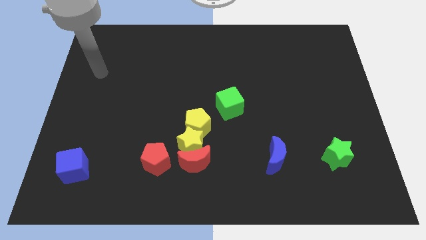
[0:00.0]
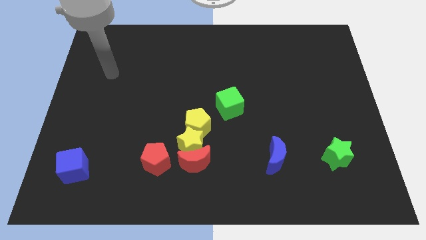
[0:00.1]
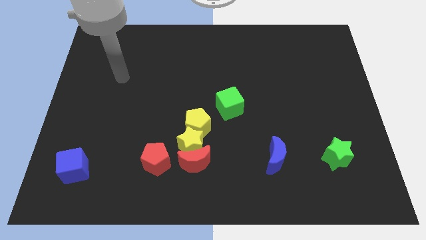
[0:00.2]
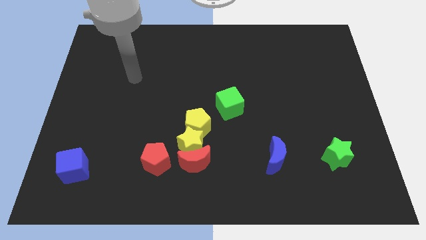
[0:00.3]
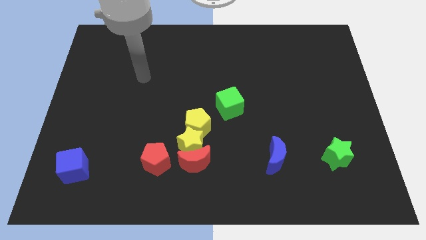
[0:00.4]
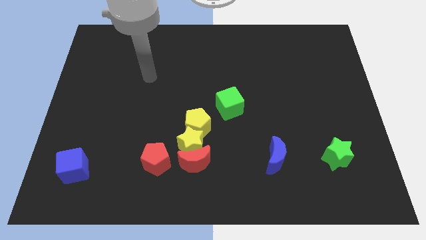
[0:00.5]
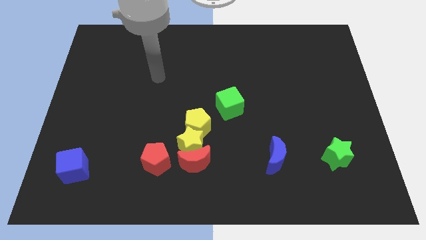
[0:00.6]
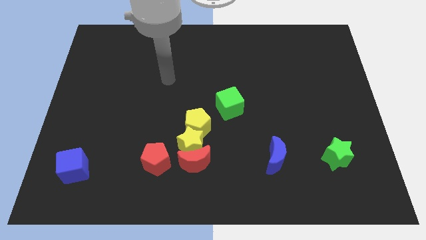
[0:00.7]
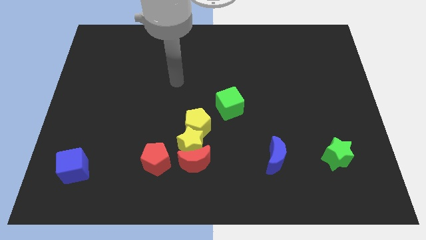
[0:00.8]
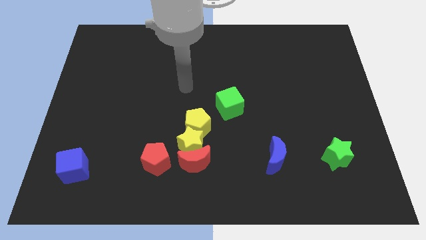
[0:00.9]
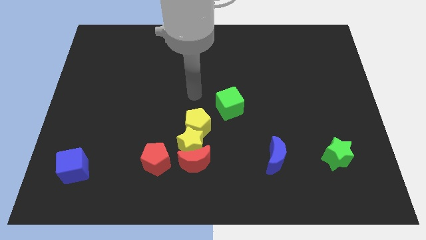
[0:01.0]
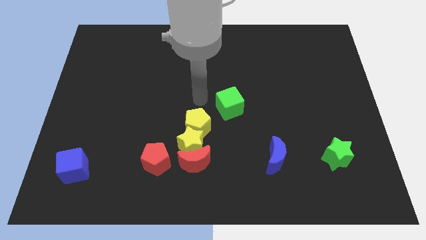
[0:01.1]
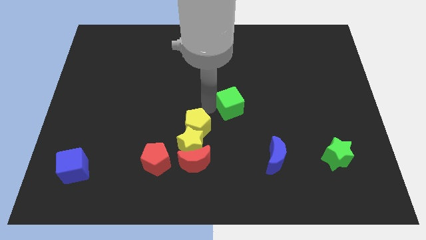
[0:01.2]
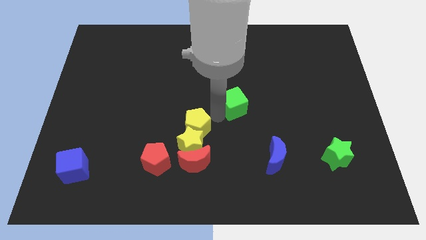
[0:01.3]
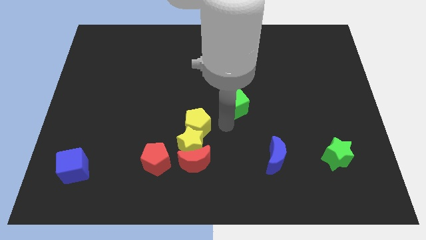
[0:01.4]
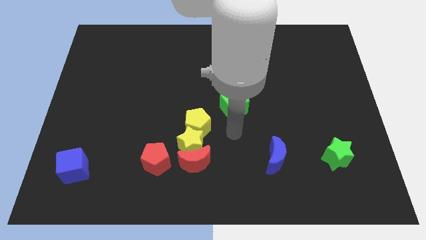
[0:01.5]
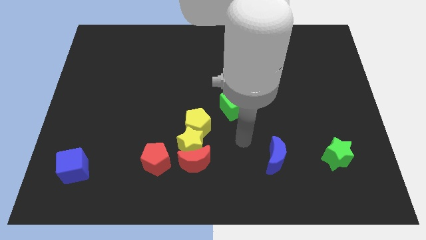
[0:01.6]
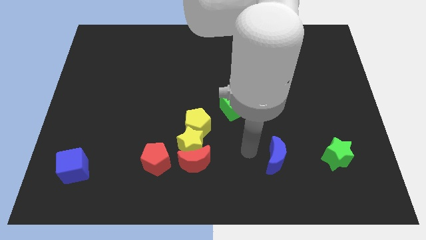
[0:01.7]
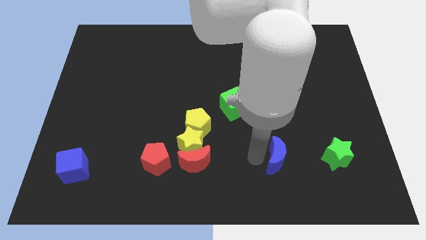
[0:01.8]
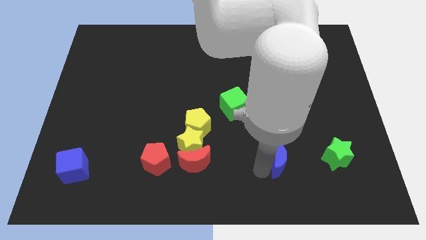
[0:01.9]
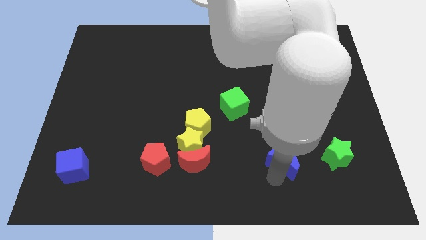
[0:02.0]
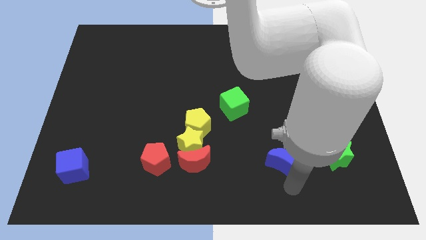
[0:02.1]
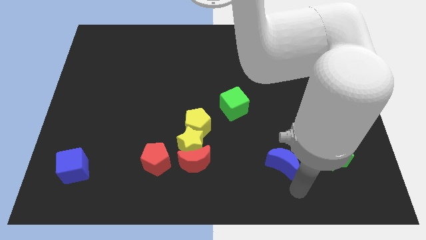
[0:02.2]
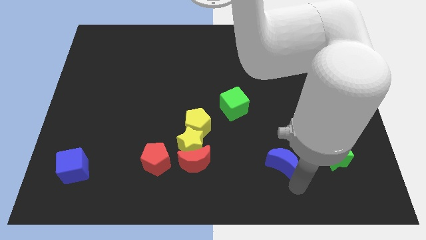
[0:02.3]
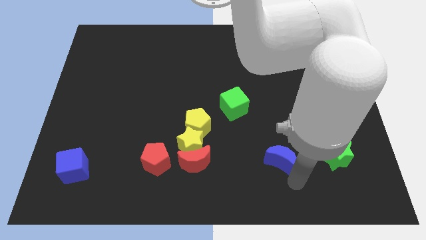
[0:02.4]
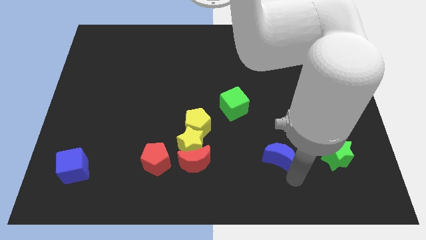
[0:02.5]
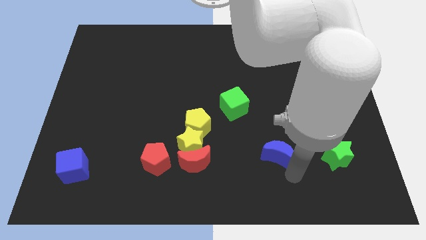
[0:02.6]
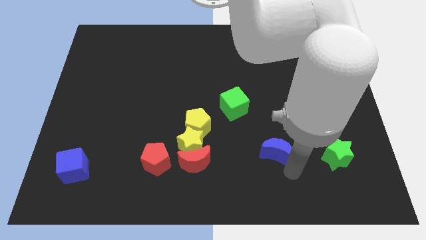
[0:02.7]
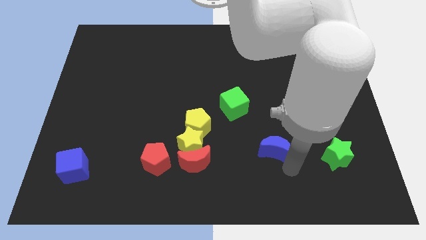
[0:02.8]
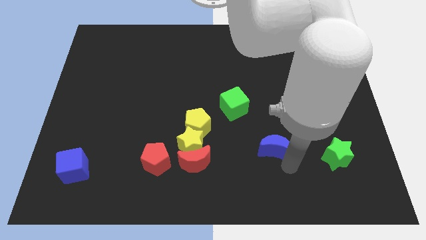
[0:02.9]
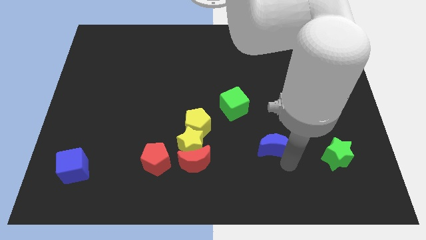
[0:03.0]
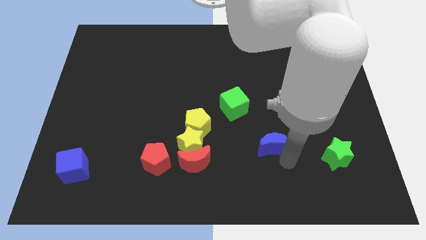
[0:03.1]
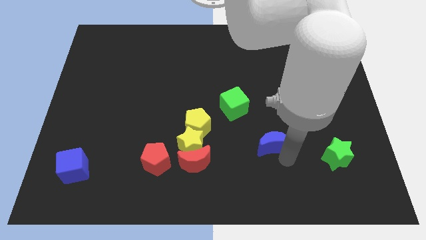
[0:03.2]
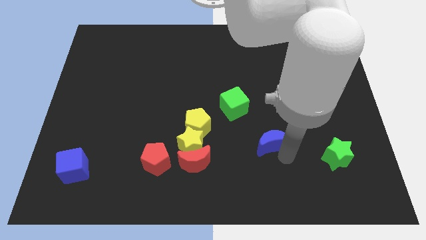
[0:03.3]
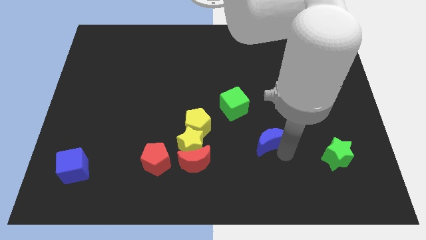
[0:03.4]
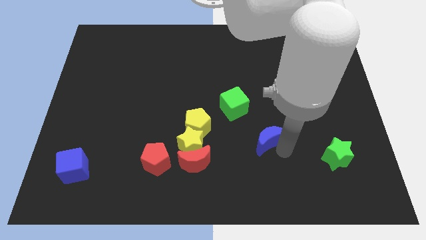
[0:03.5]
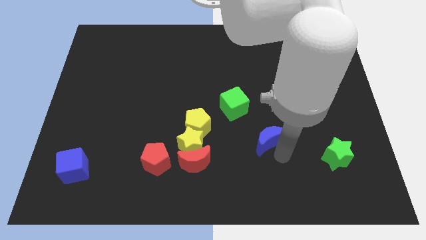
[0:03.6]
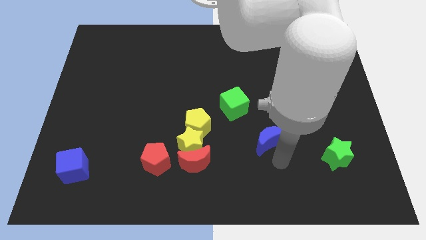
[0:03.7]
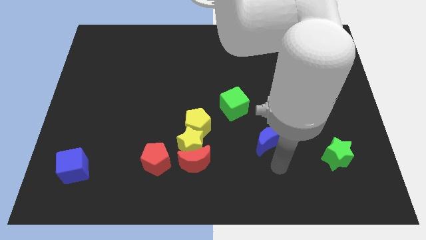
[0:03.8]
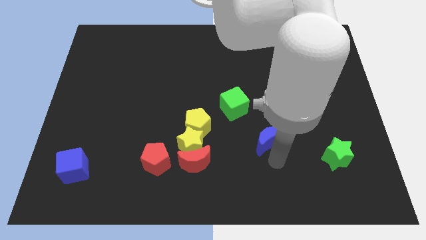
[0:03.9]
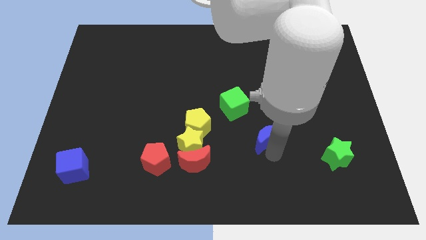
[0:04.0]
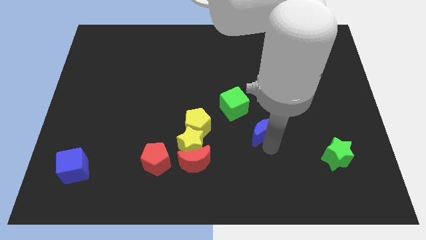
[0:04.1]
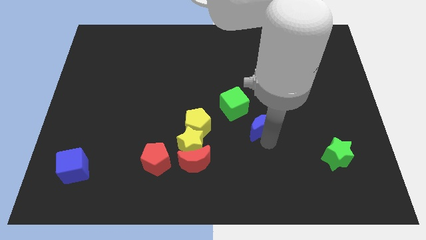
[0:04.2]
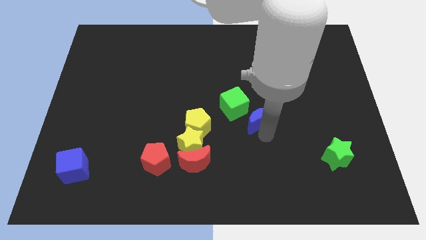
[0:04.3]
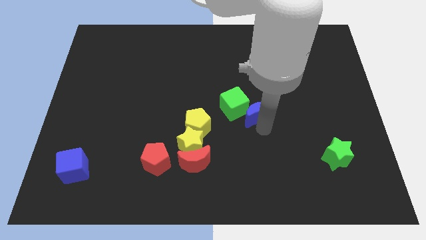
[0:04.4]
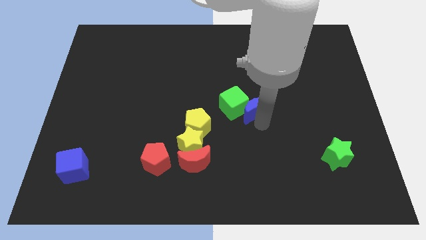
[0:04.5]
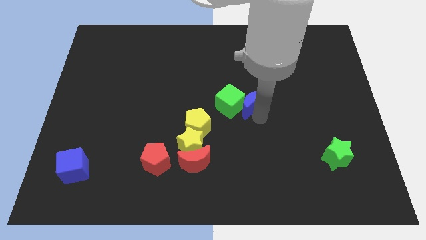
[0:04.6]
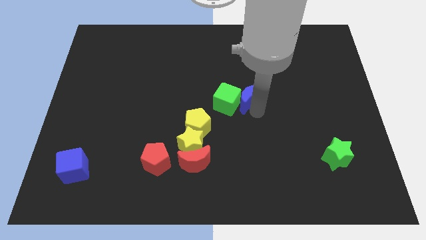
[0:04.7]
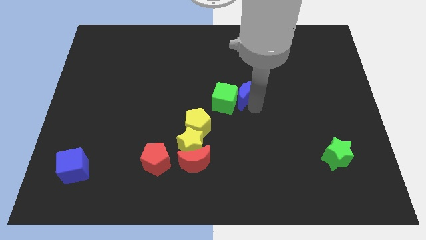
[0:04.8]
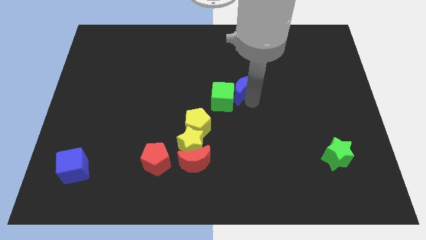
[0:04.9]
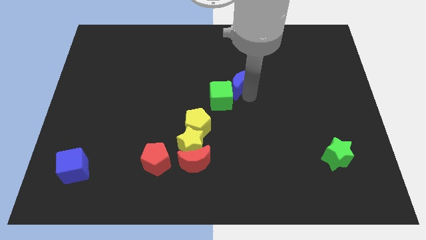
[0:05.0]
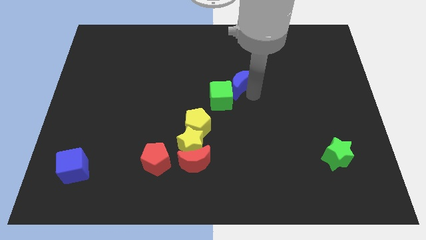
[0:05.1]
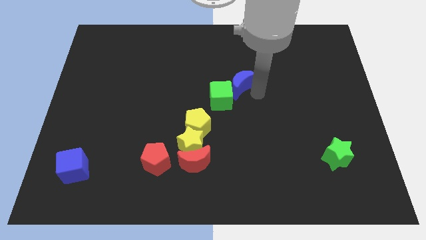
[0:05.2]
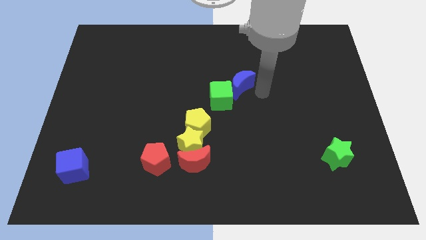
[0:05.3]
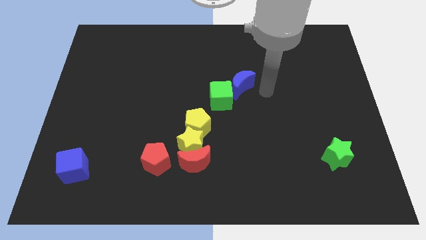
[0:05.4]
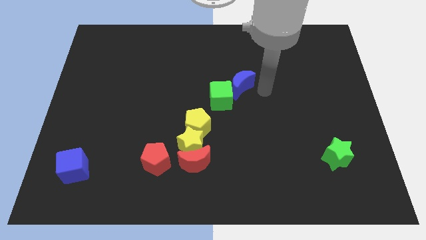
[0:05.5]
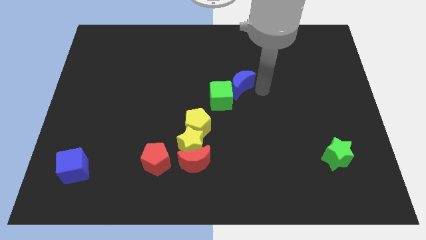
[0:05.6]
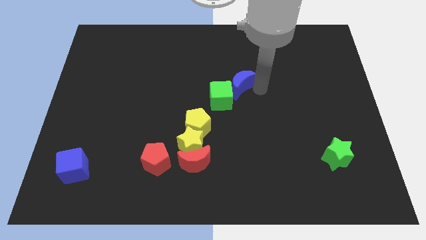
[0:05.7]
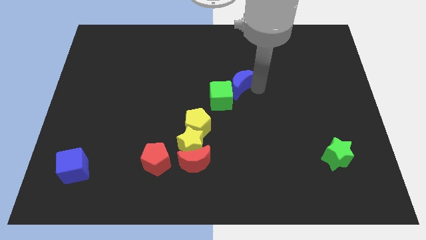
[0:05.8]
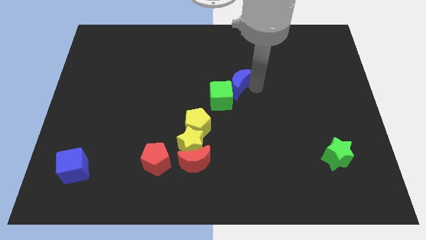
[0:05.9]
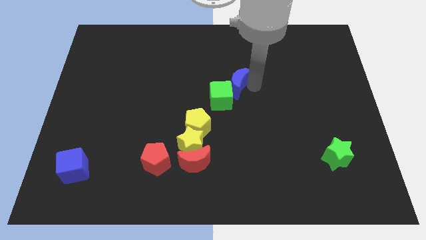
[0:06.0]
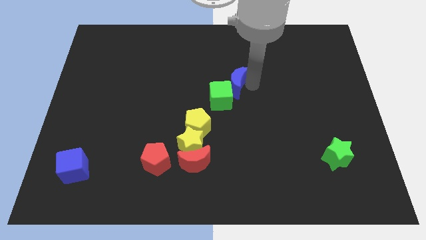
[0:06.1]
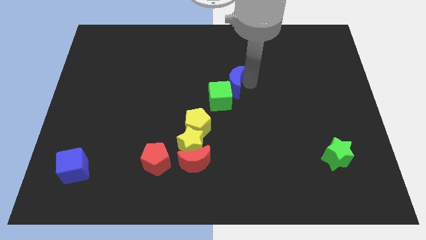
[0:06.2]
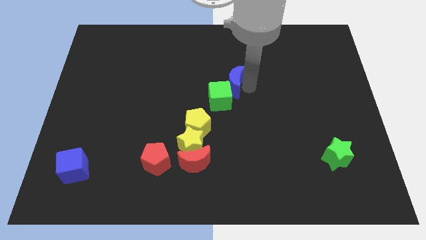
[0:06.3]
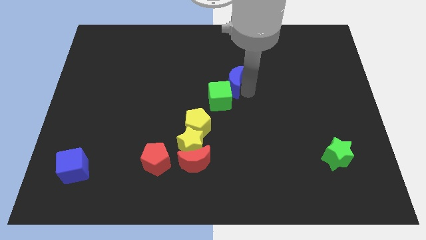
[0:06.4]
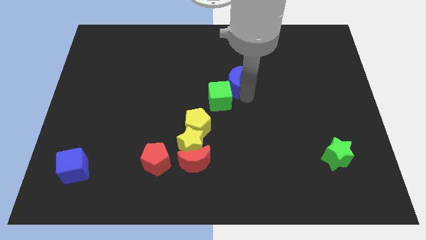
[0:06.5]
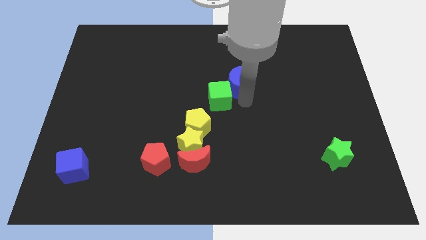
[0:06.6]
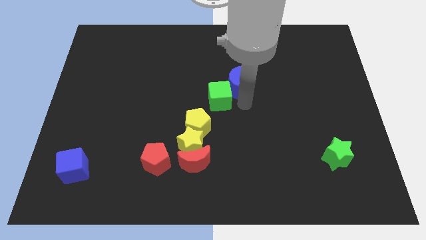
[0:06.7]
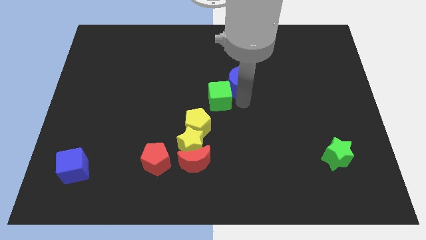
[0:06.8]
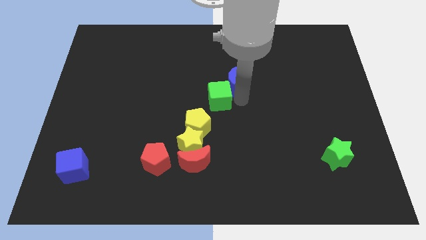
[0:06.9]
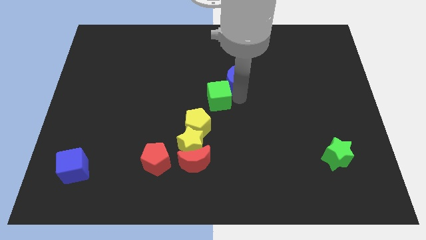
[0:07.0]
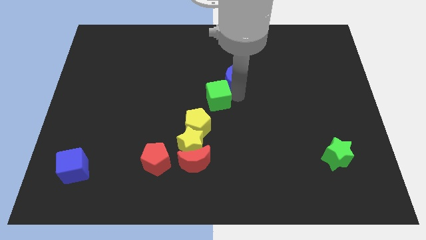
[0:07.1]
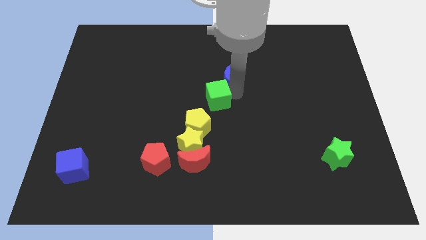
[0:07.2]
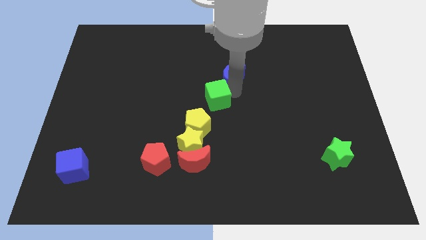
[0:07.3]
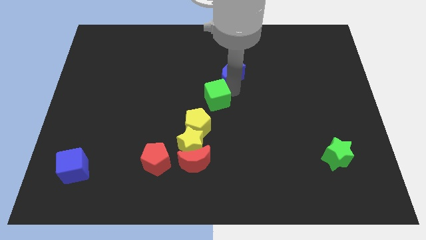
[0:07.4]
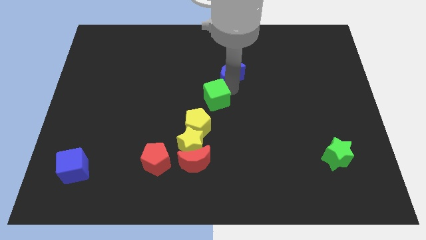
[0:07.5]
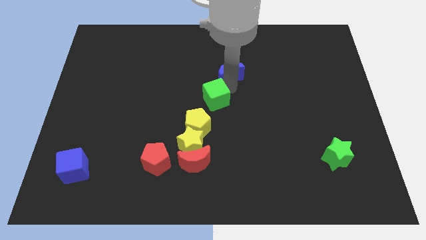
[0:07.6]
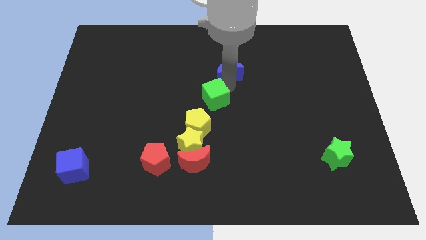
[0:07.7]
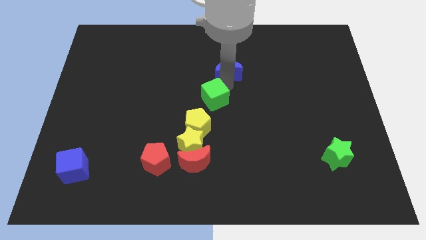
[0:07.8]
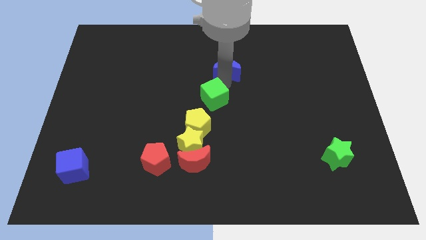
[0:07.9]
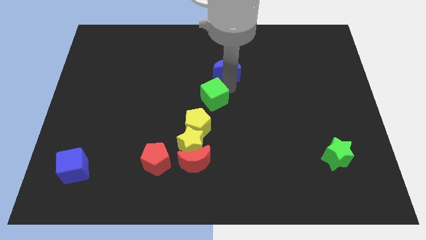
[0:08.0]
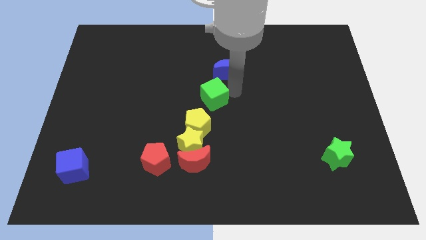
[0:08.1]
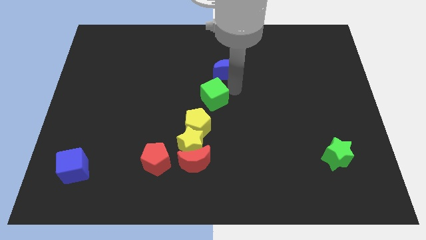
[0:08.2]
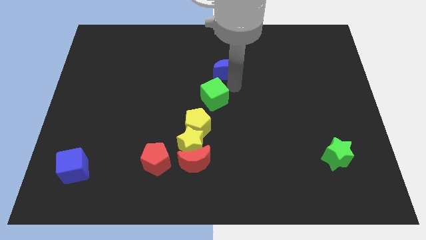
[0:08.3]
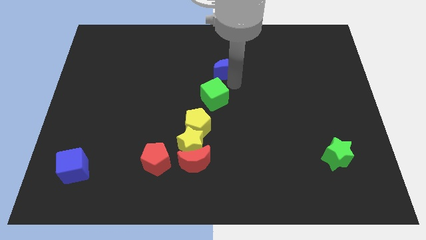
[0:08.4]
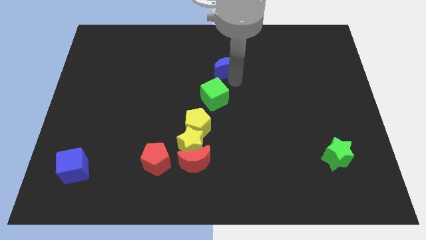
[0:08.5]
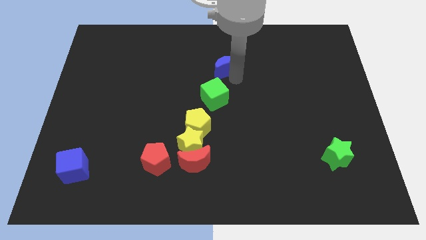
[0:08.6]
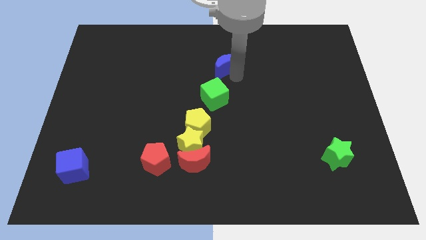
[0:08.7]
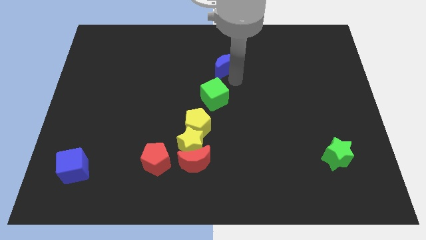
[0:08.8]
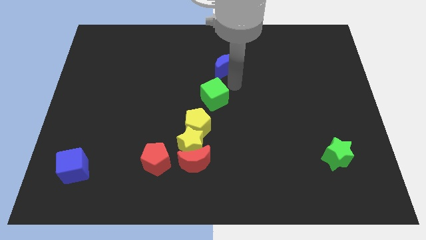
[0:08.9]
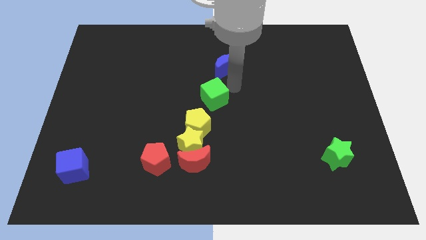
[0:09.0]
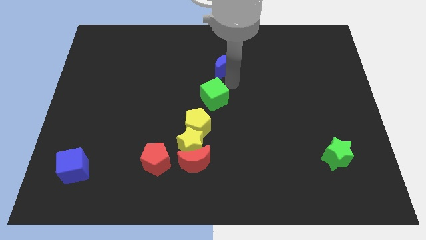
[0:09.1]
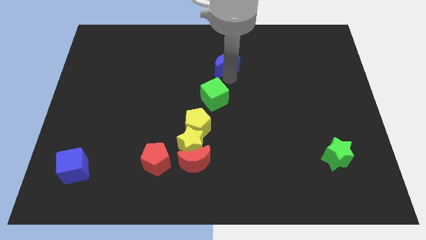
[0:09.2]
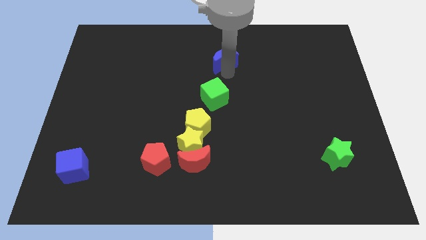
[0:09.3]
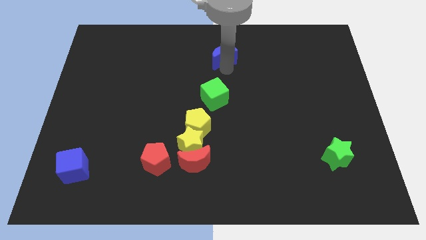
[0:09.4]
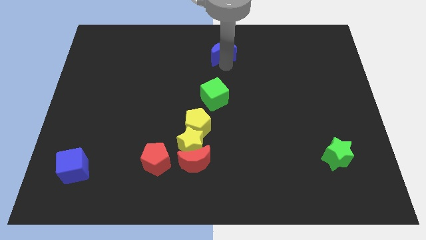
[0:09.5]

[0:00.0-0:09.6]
push the blue moon to the top
